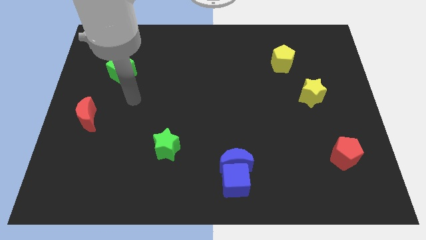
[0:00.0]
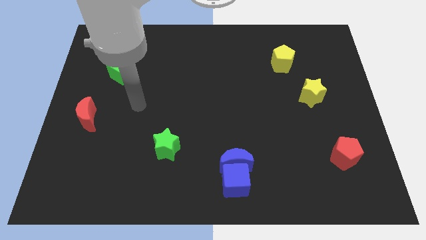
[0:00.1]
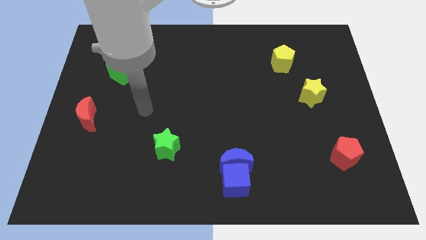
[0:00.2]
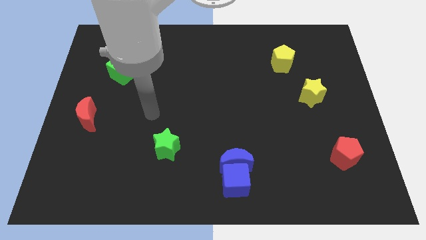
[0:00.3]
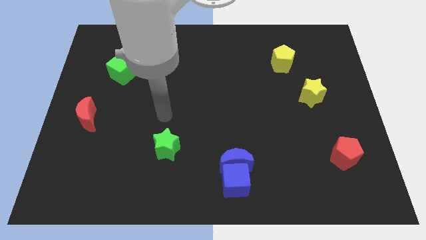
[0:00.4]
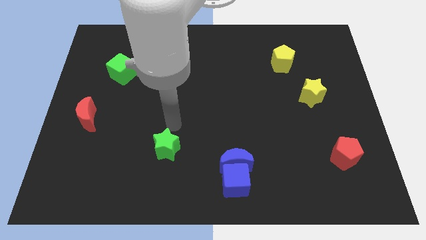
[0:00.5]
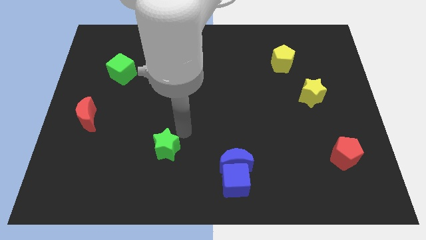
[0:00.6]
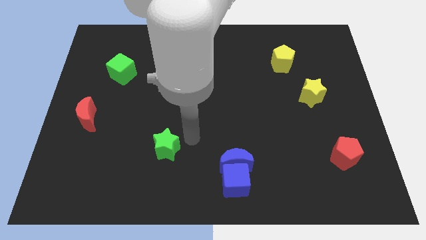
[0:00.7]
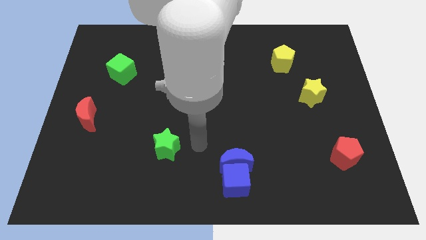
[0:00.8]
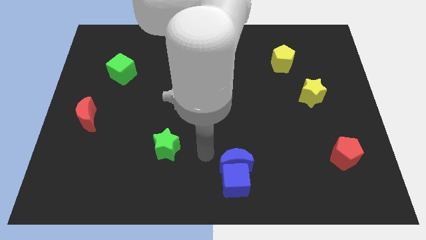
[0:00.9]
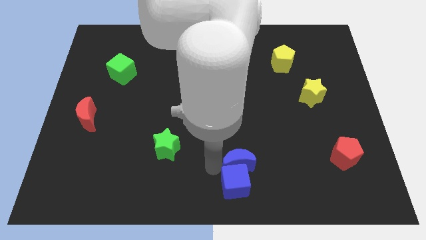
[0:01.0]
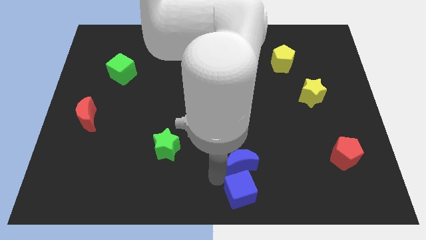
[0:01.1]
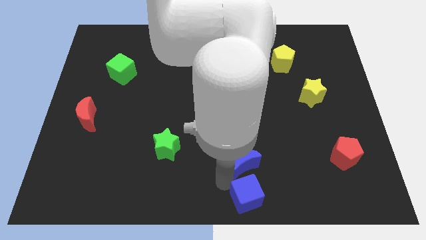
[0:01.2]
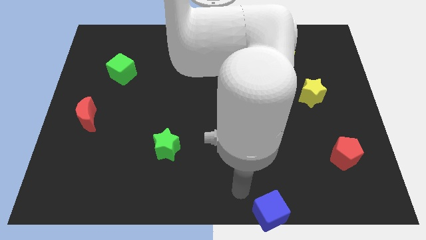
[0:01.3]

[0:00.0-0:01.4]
pull the blue moon apart from the blue cube

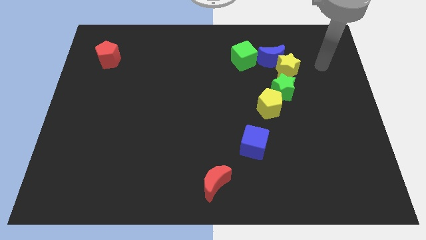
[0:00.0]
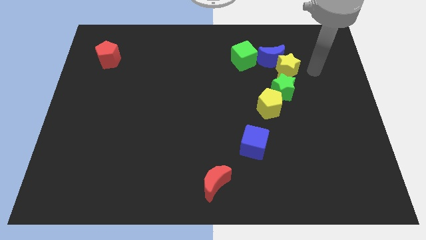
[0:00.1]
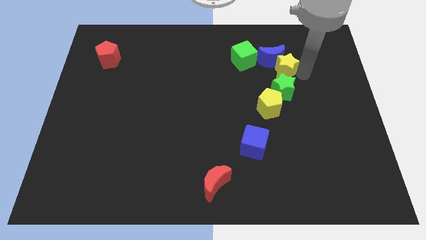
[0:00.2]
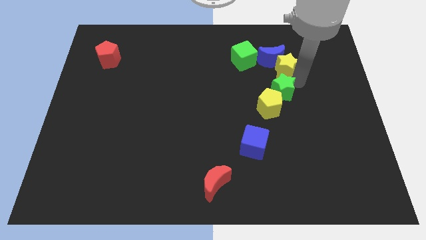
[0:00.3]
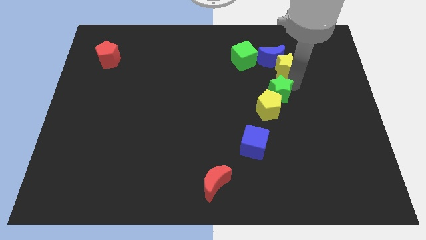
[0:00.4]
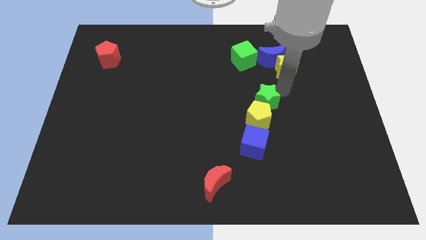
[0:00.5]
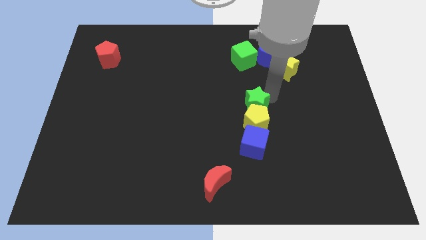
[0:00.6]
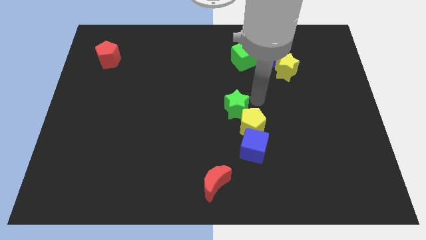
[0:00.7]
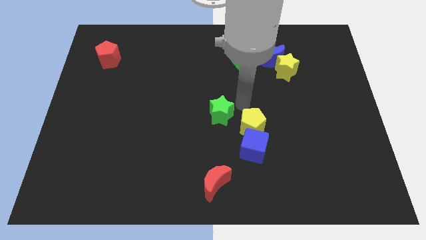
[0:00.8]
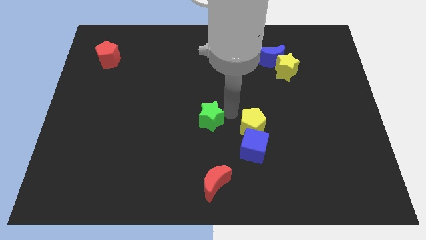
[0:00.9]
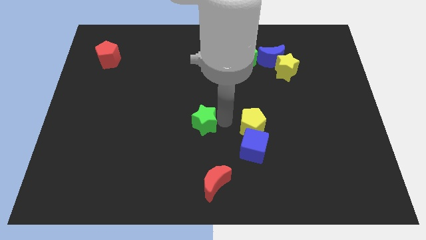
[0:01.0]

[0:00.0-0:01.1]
move the yellow pentagon away from the green star

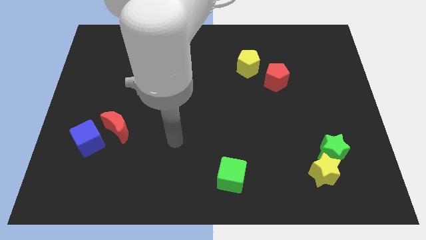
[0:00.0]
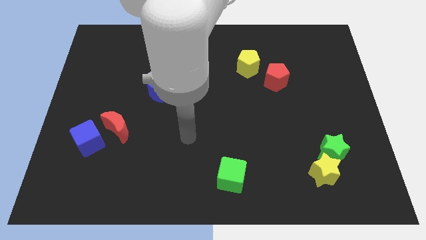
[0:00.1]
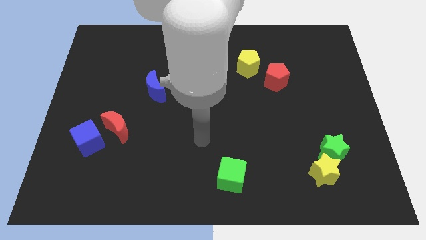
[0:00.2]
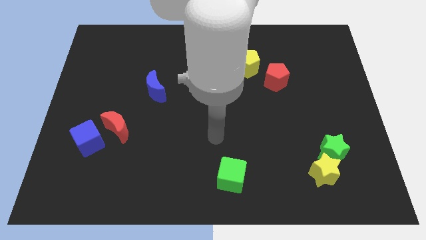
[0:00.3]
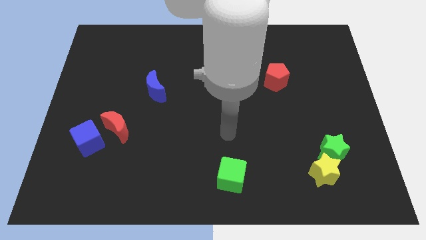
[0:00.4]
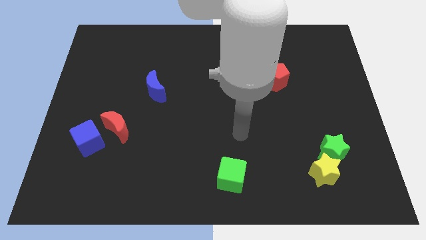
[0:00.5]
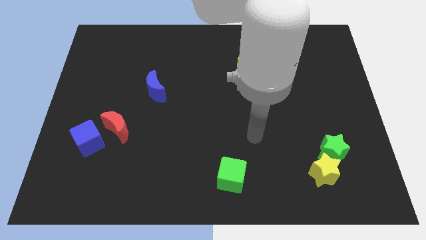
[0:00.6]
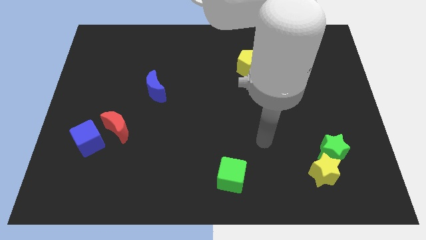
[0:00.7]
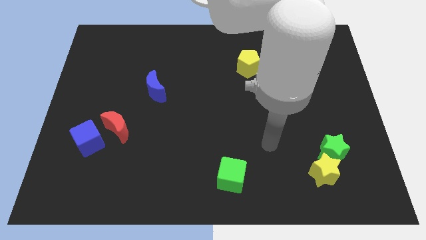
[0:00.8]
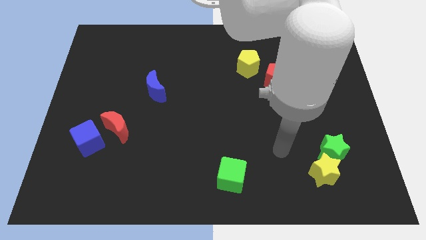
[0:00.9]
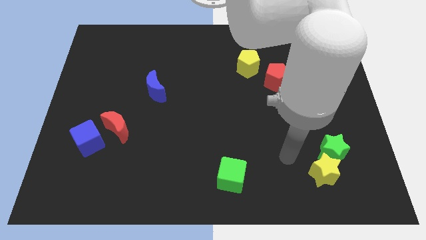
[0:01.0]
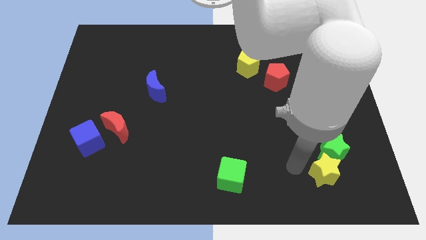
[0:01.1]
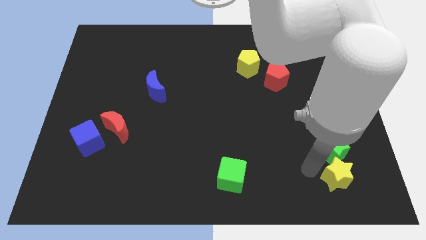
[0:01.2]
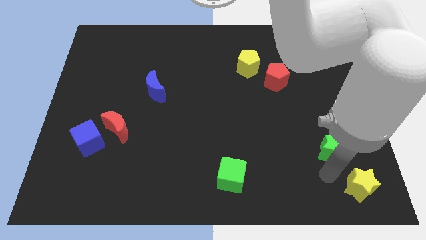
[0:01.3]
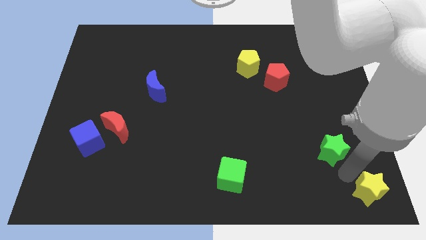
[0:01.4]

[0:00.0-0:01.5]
separate the green star from the yellow star

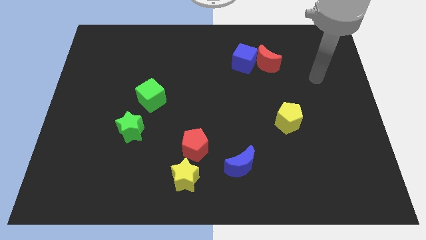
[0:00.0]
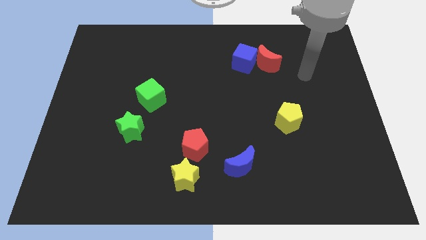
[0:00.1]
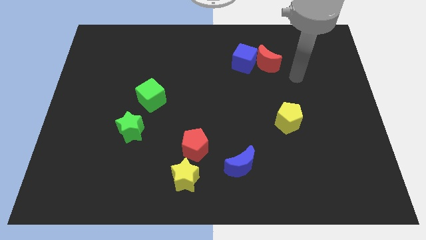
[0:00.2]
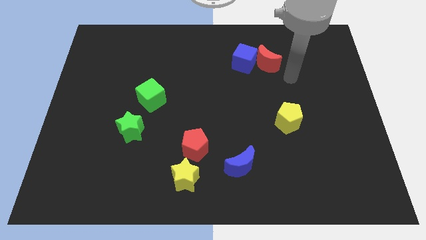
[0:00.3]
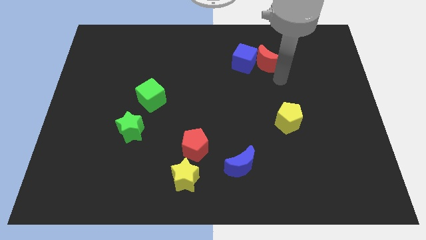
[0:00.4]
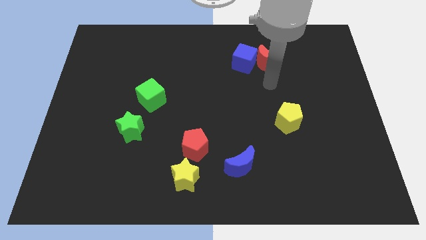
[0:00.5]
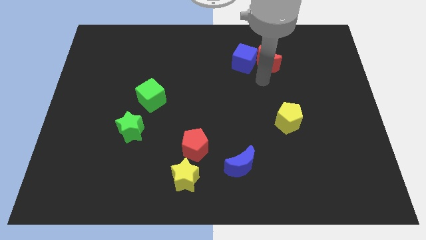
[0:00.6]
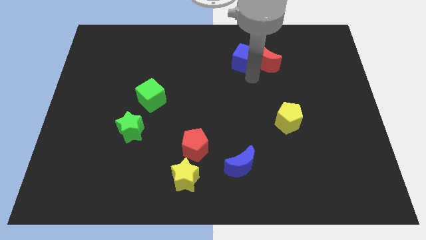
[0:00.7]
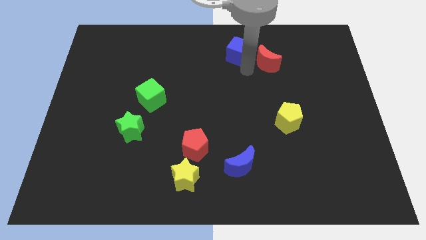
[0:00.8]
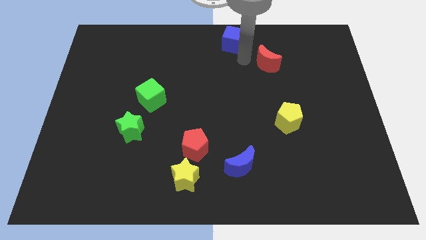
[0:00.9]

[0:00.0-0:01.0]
move the red moon away from the blue cube

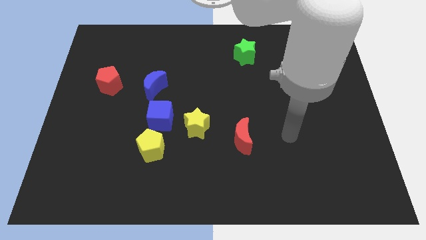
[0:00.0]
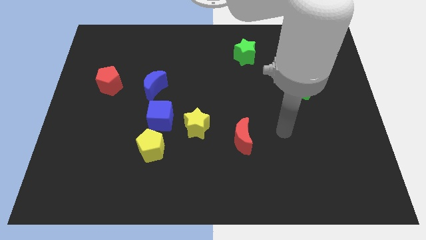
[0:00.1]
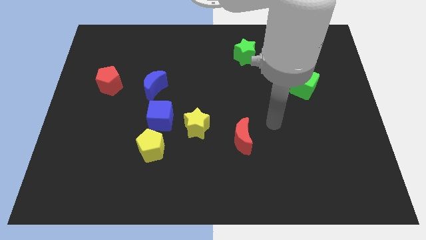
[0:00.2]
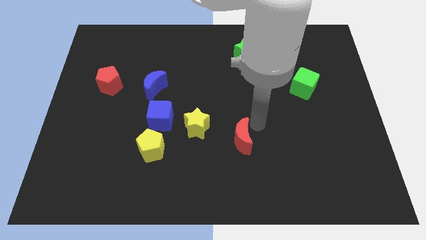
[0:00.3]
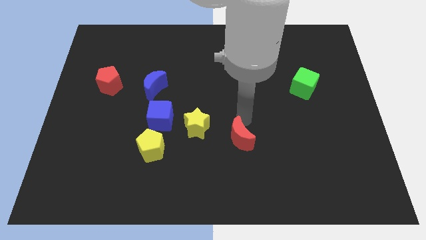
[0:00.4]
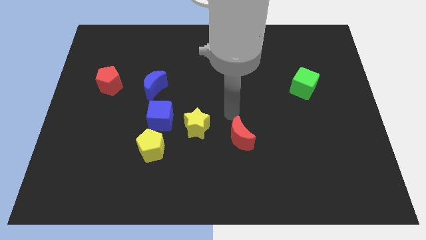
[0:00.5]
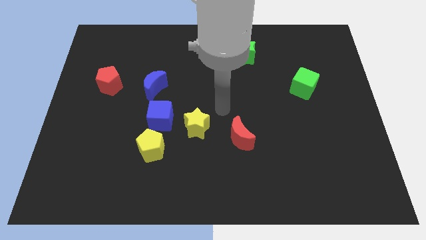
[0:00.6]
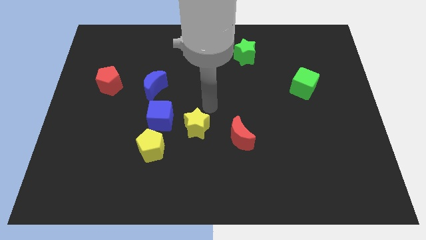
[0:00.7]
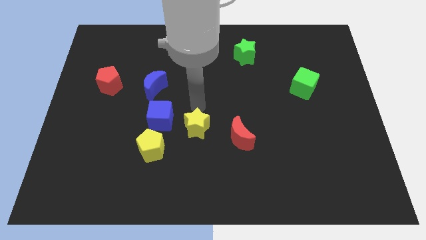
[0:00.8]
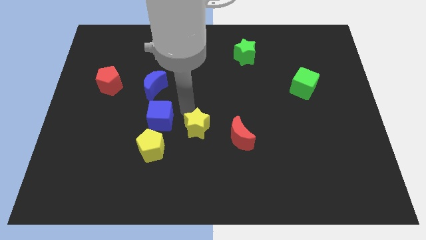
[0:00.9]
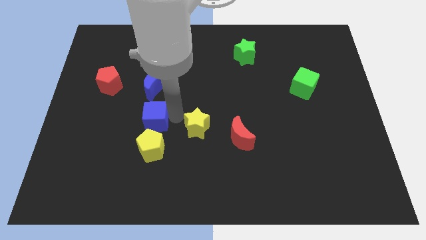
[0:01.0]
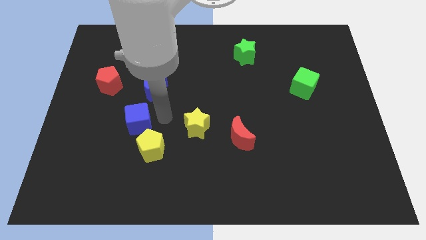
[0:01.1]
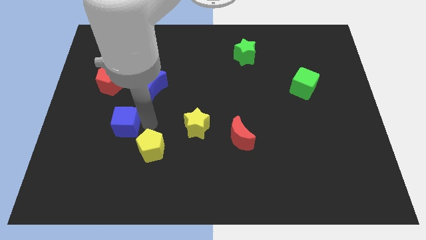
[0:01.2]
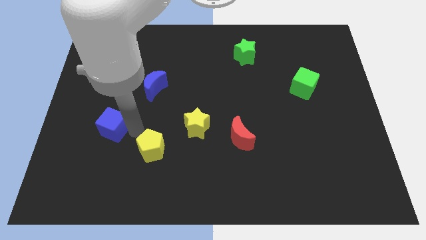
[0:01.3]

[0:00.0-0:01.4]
move the yellow pentagon away from the blue cube

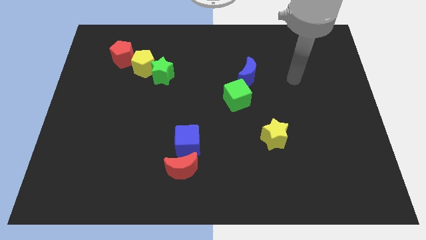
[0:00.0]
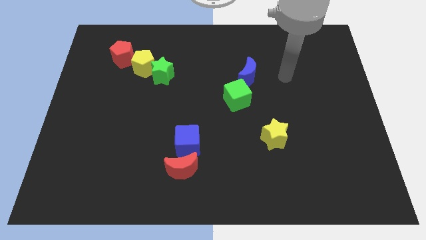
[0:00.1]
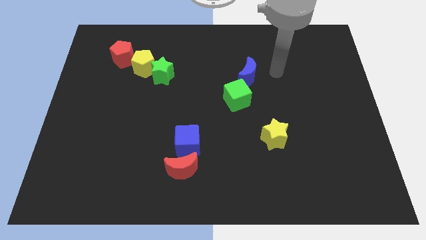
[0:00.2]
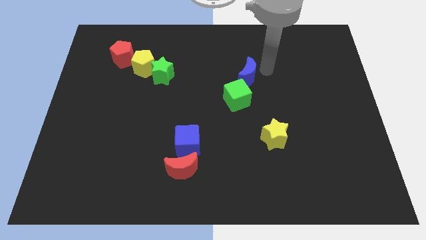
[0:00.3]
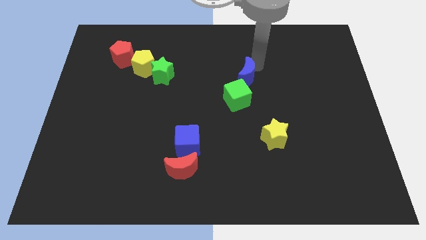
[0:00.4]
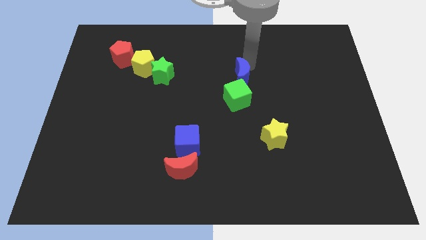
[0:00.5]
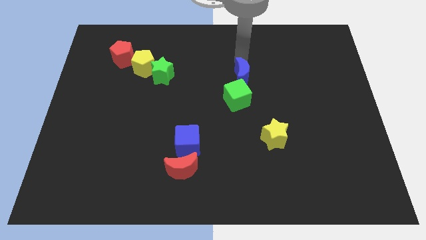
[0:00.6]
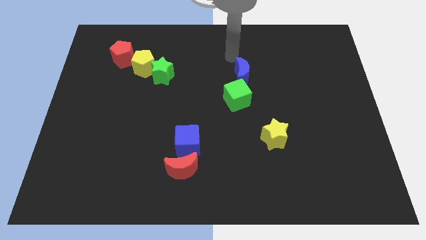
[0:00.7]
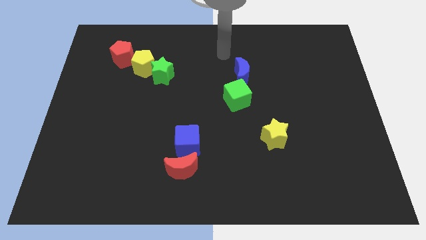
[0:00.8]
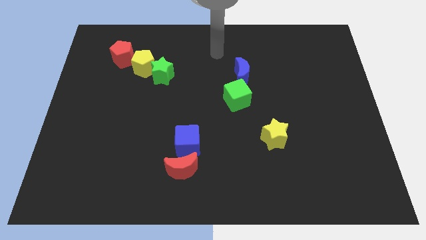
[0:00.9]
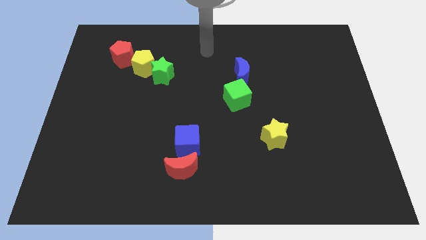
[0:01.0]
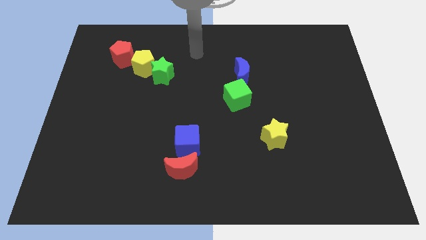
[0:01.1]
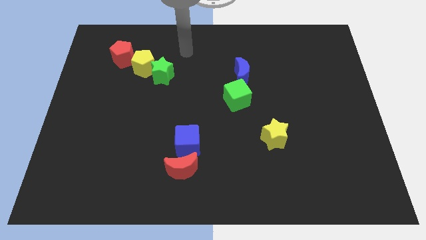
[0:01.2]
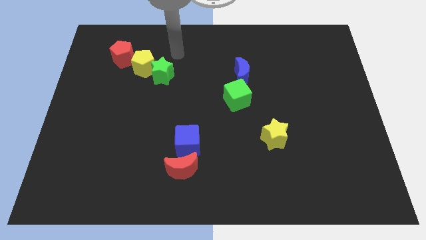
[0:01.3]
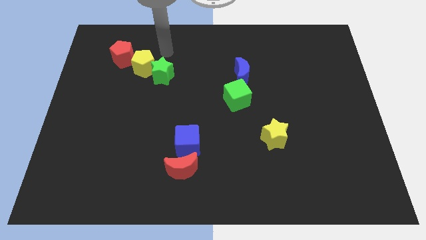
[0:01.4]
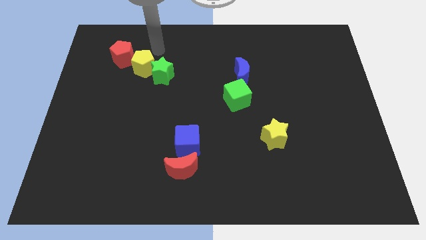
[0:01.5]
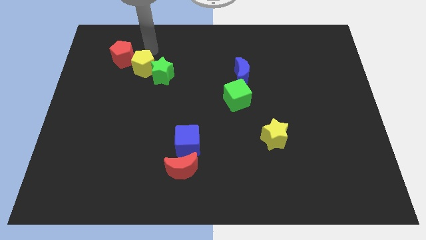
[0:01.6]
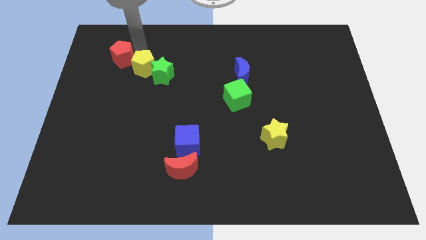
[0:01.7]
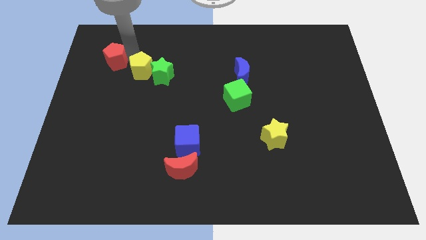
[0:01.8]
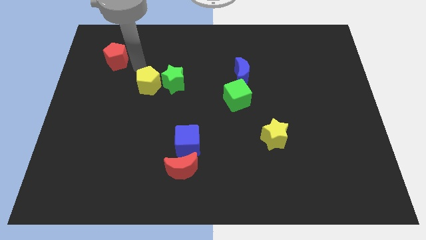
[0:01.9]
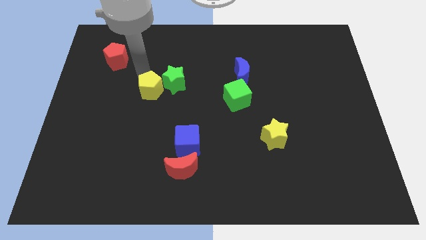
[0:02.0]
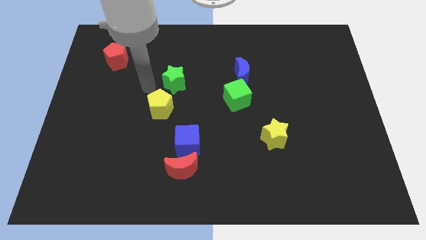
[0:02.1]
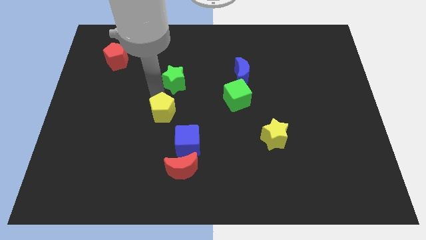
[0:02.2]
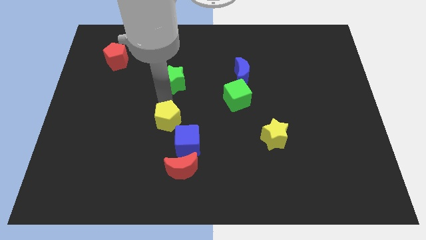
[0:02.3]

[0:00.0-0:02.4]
separate the green star from the yellow pentagon

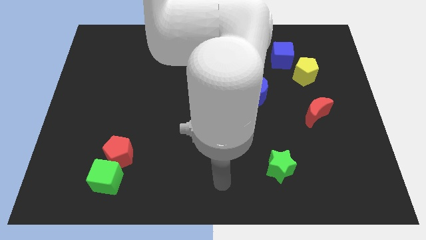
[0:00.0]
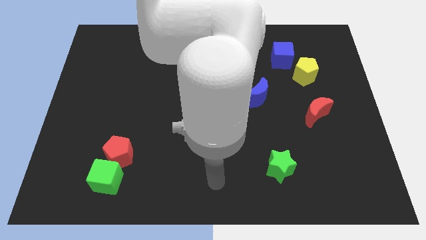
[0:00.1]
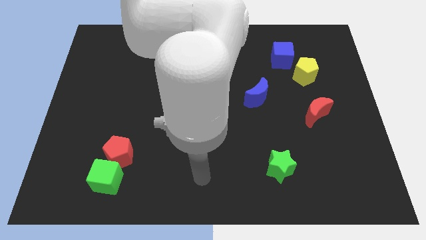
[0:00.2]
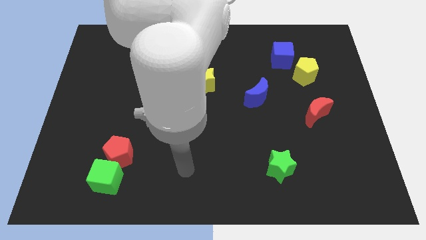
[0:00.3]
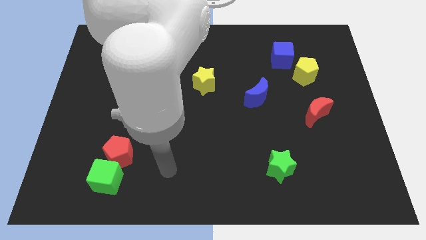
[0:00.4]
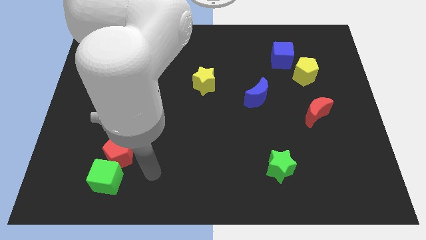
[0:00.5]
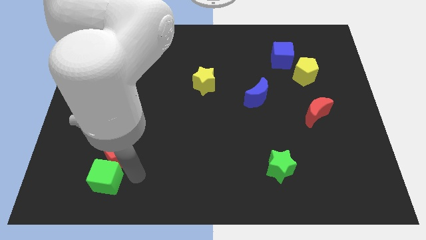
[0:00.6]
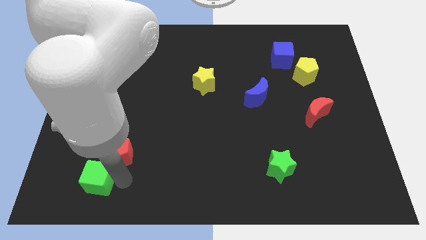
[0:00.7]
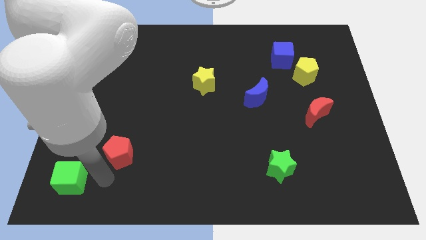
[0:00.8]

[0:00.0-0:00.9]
separate the red pentagon from the green cube
